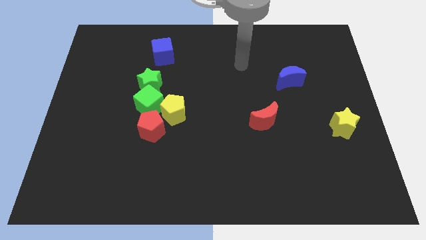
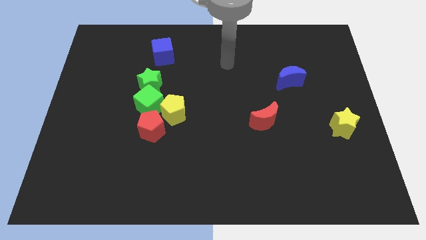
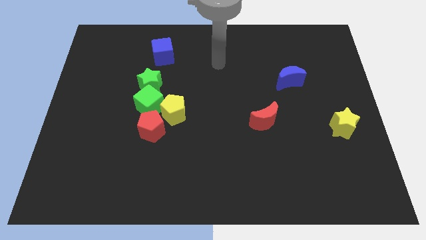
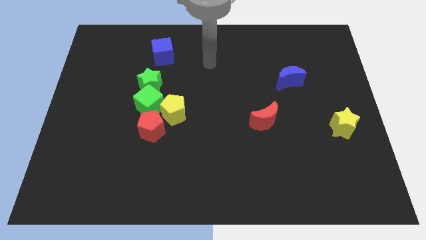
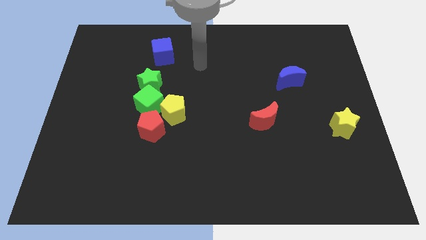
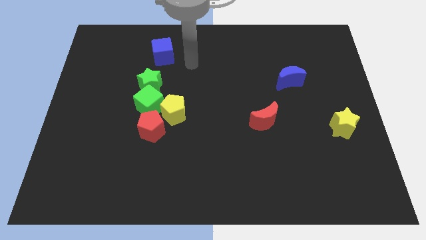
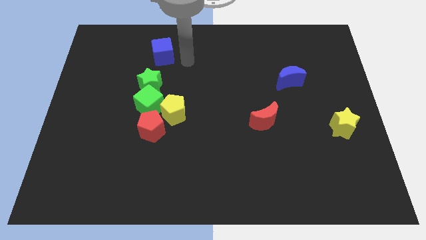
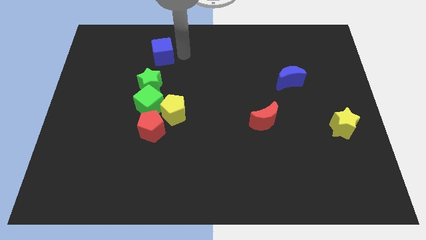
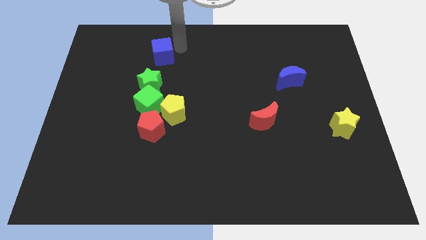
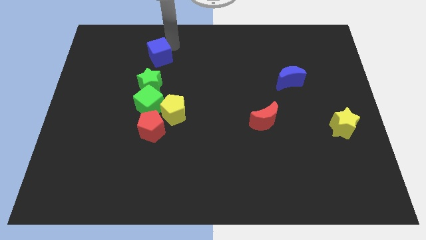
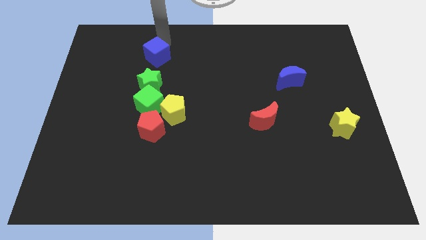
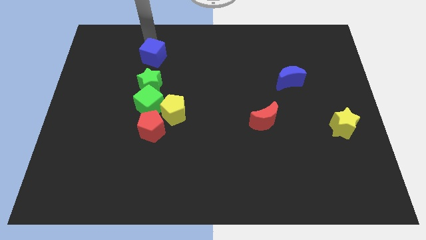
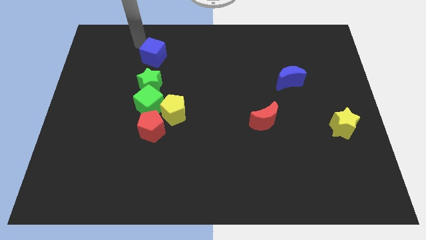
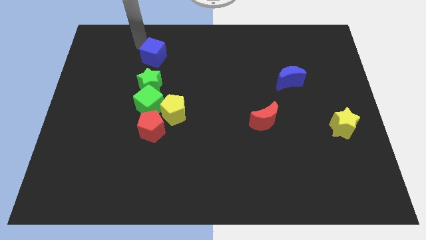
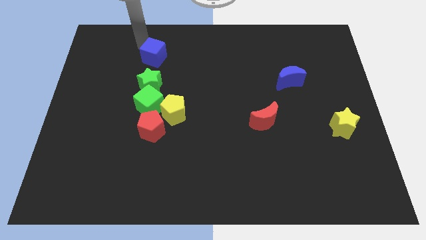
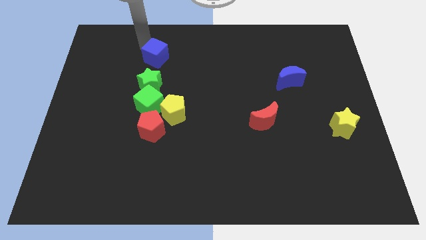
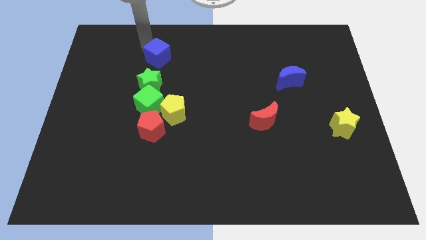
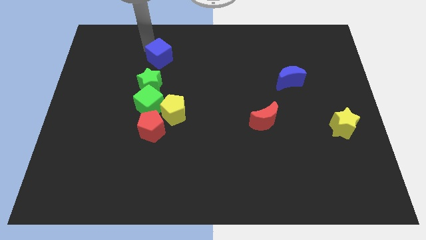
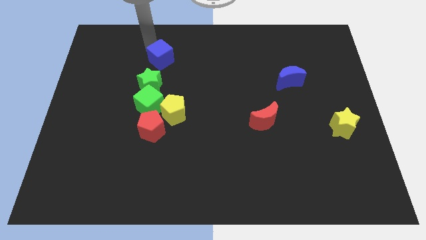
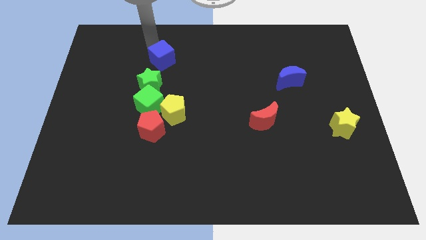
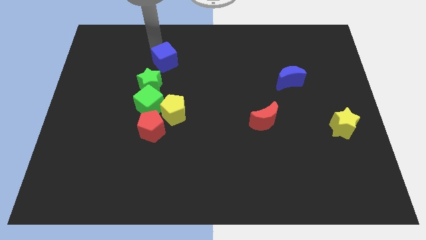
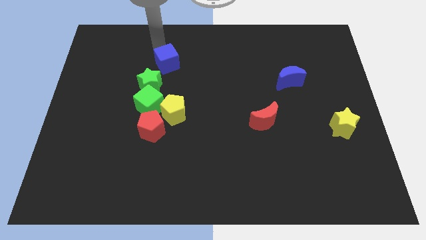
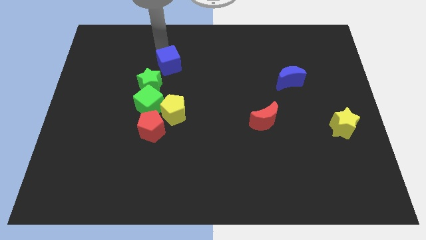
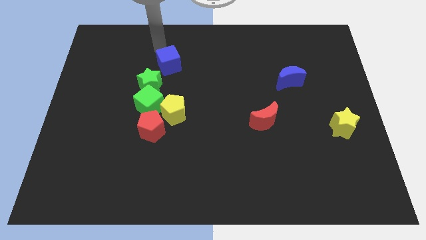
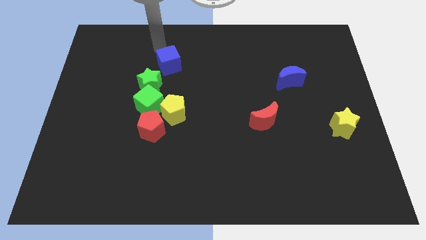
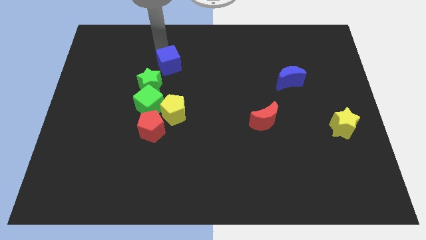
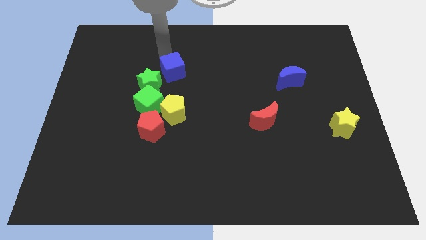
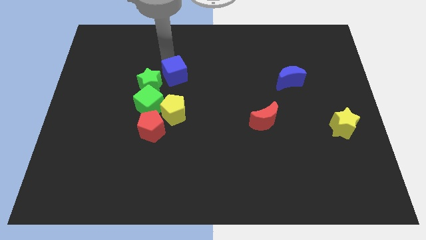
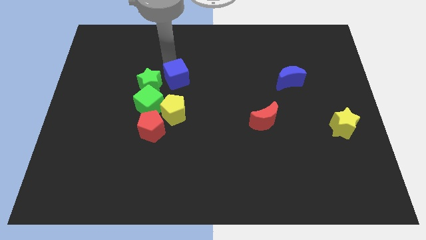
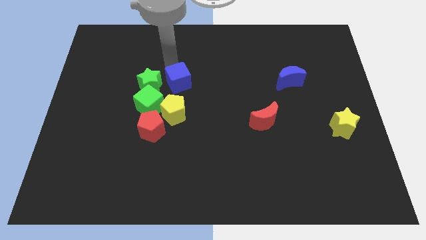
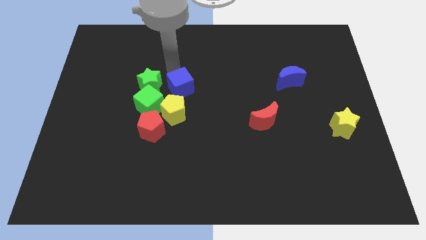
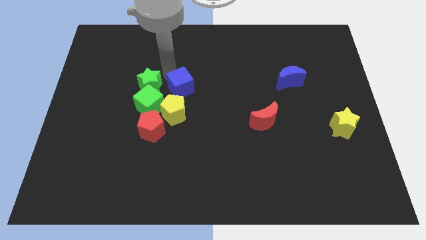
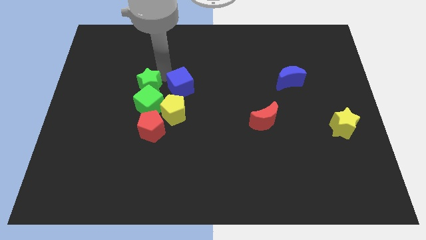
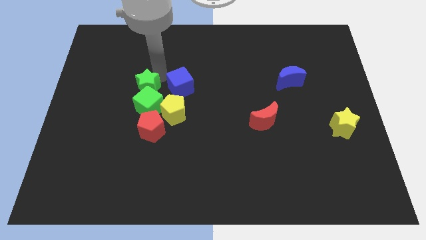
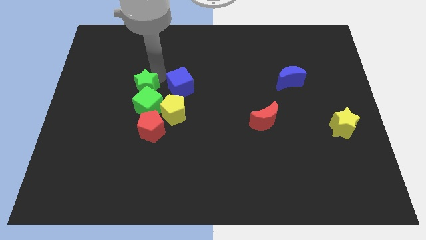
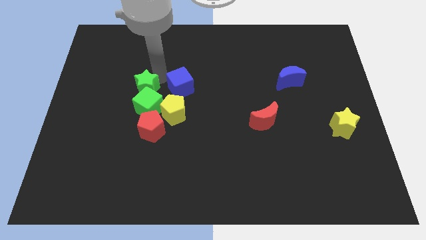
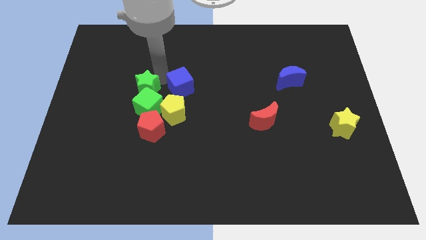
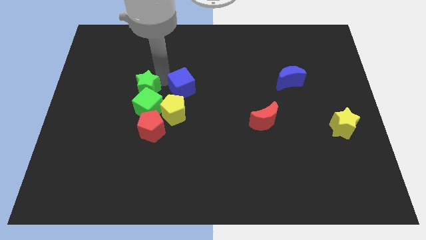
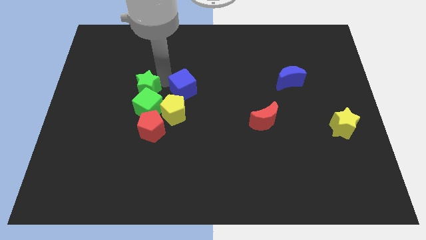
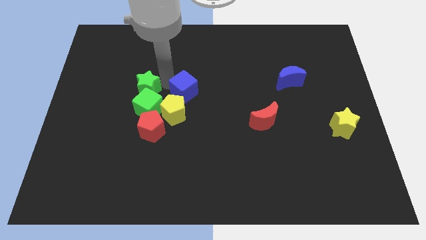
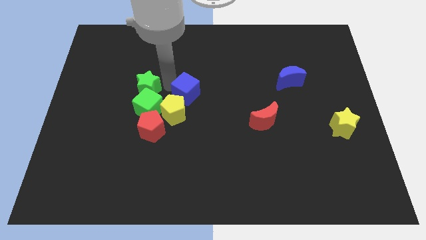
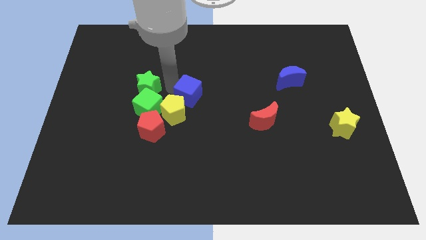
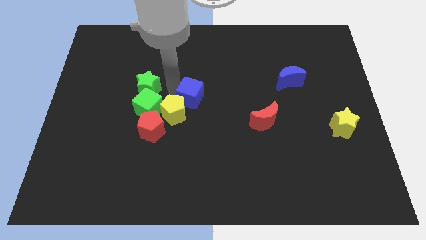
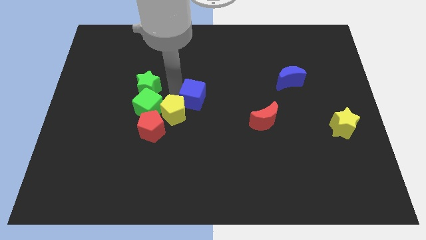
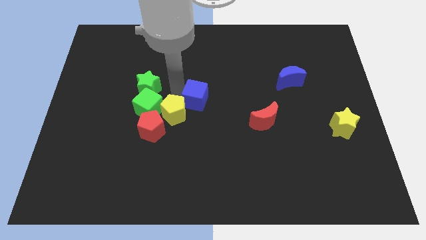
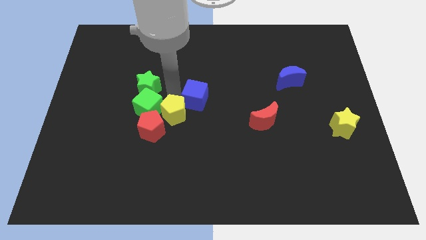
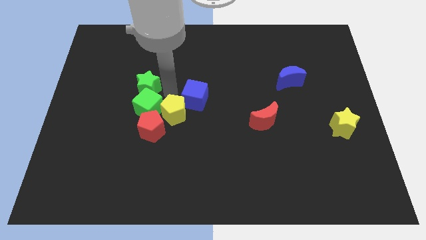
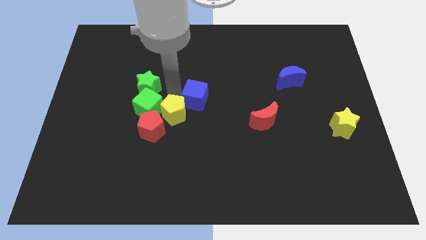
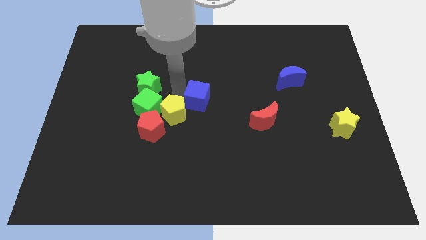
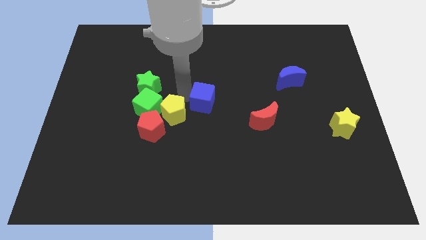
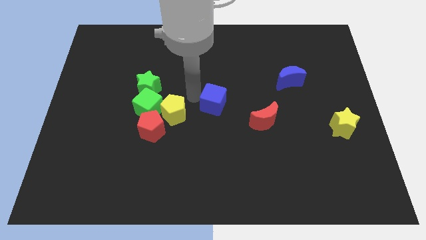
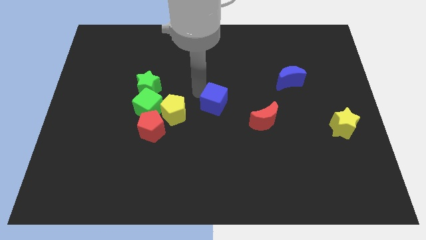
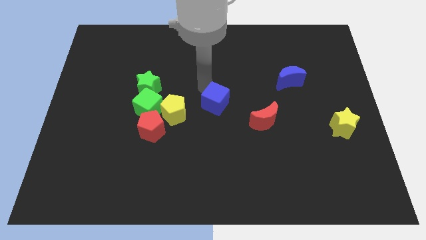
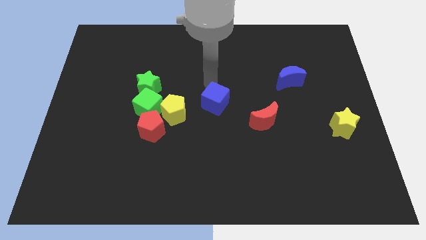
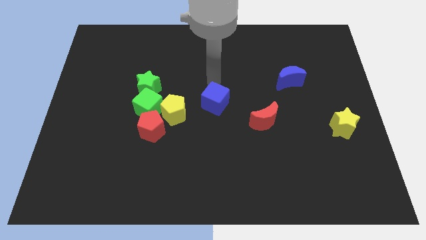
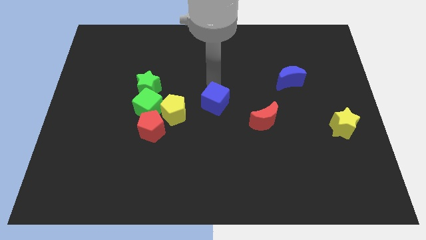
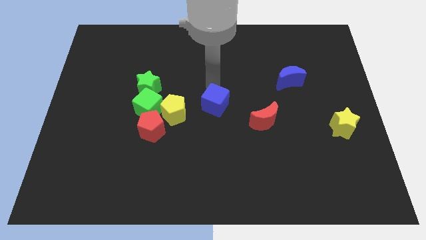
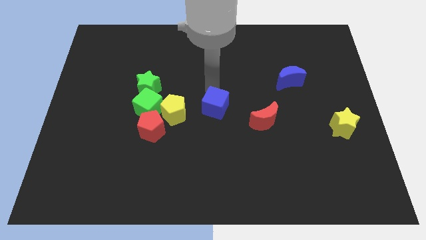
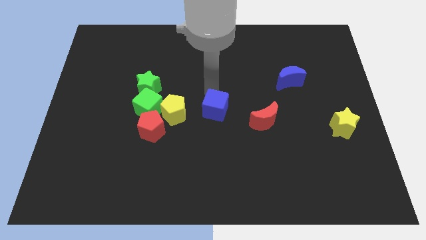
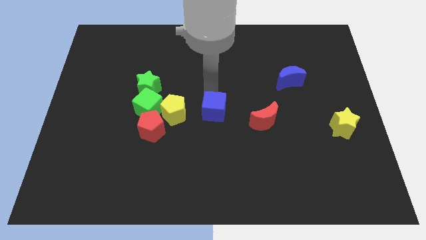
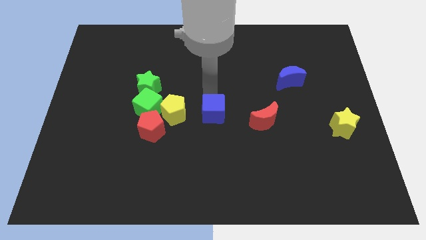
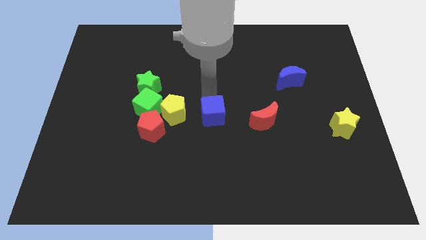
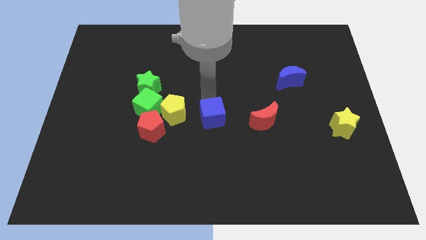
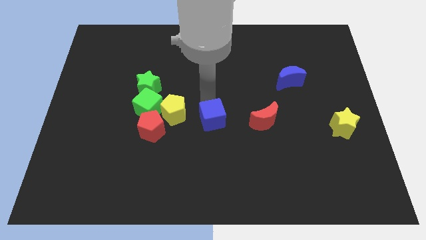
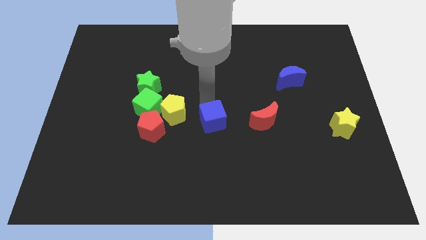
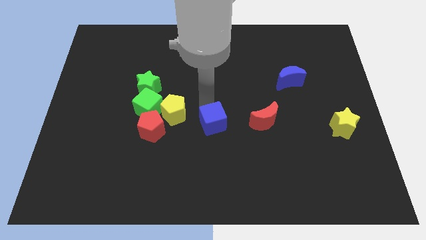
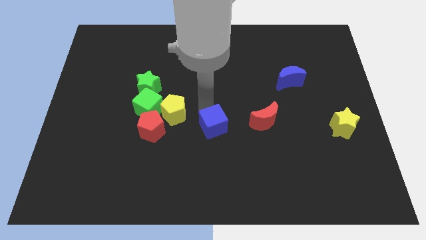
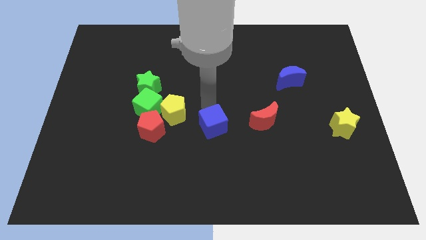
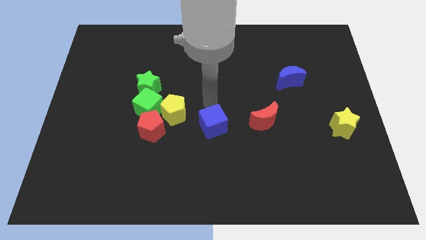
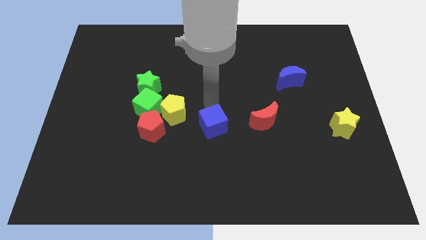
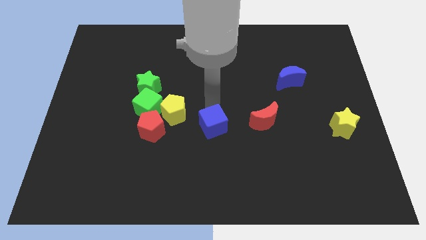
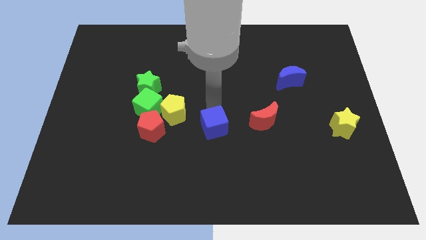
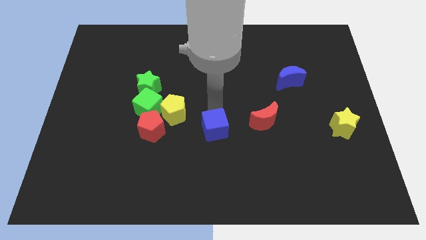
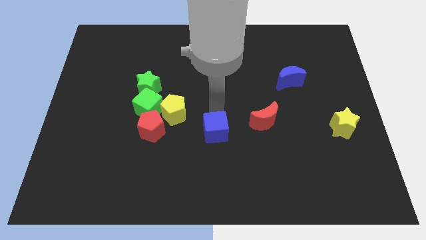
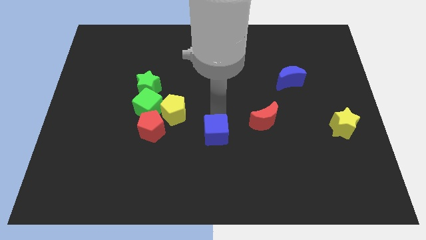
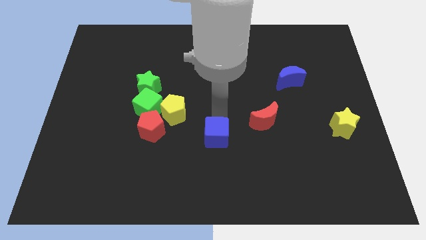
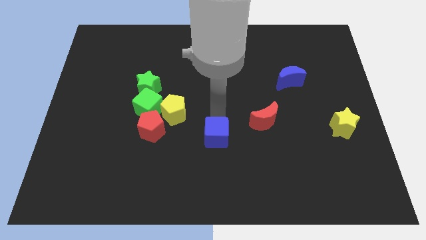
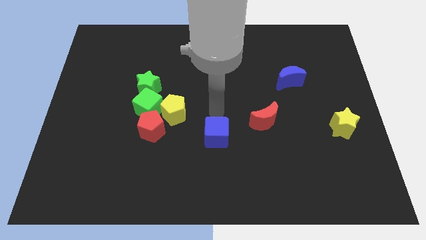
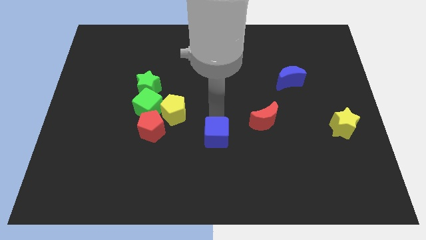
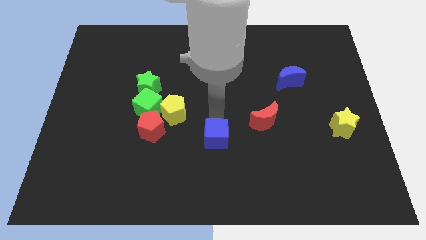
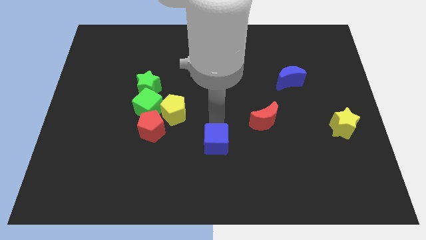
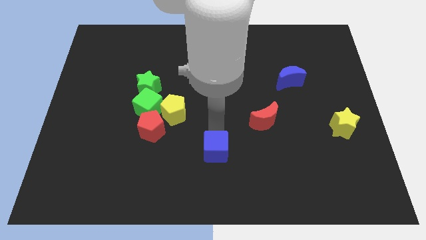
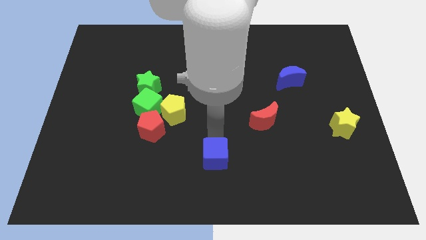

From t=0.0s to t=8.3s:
move the blue cube to the bottom
